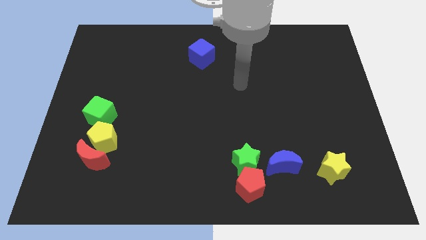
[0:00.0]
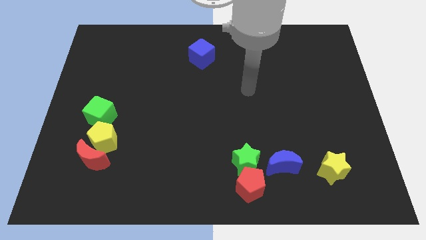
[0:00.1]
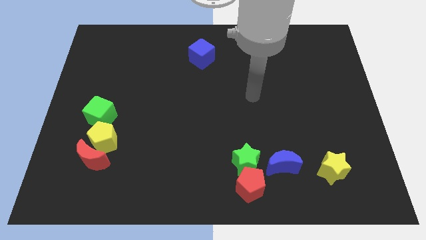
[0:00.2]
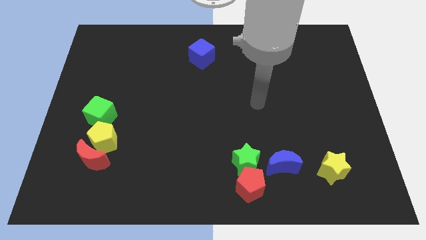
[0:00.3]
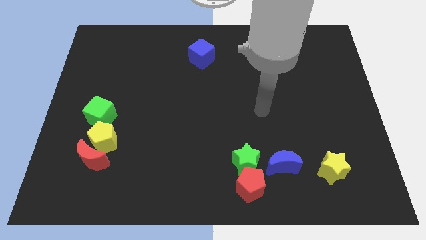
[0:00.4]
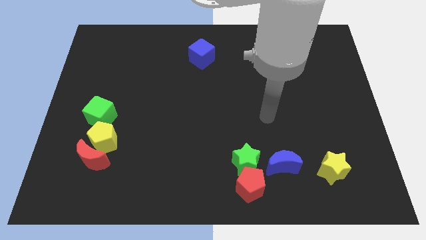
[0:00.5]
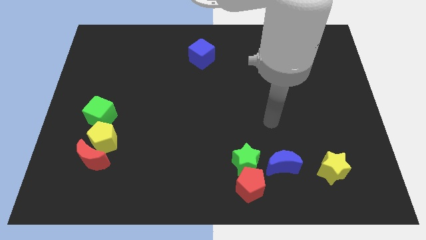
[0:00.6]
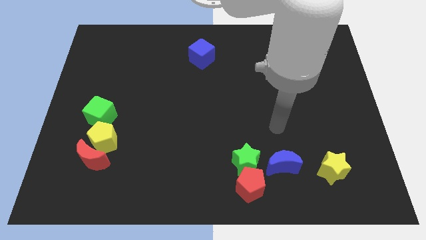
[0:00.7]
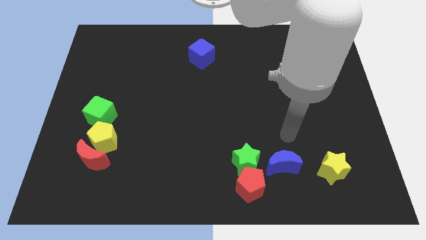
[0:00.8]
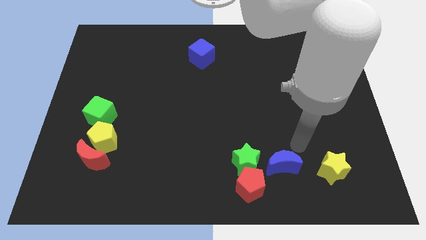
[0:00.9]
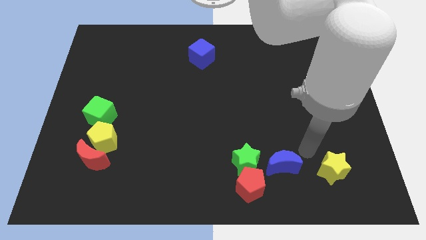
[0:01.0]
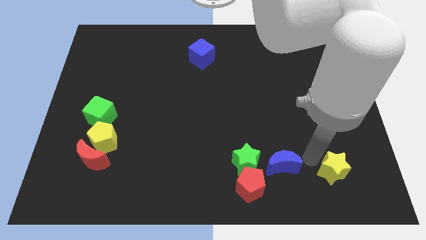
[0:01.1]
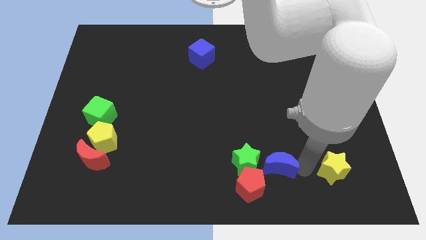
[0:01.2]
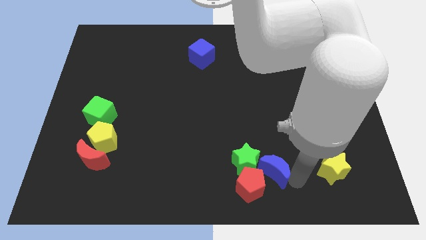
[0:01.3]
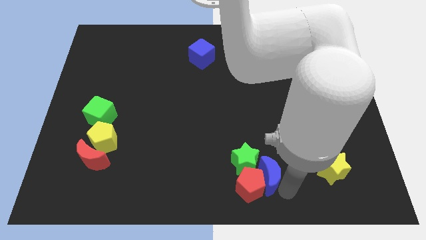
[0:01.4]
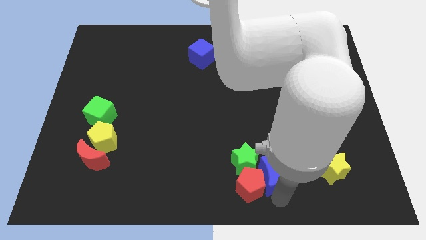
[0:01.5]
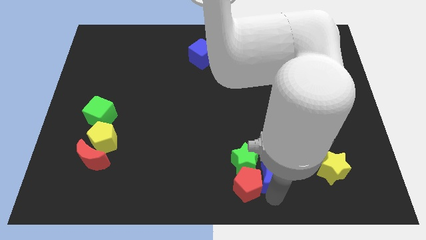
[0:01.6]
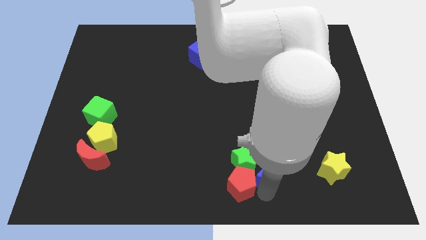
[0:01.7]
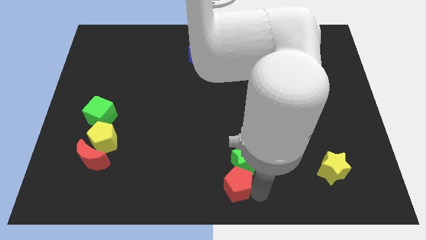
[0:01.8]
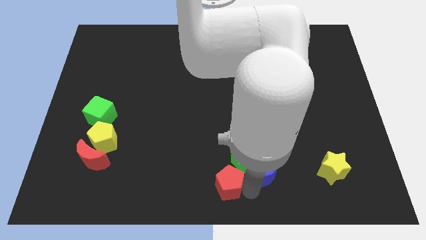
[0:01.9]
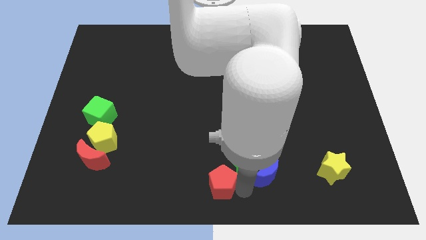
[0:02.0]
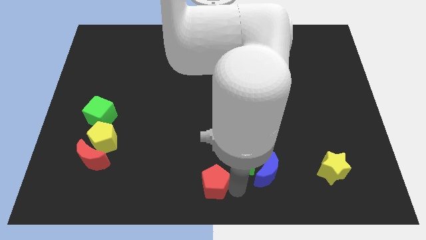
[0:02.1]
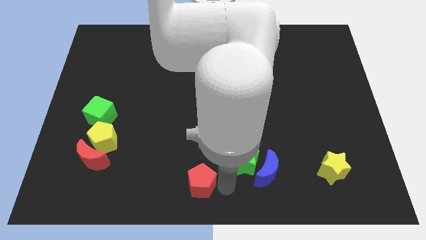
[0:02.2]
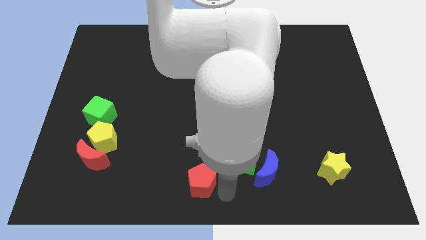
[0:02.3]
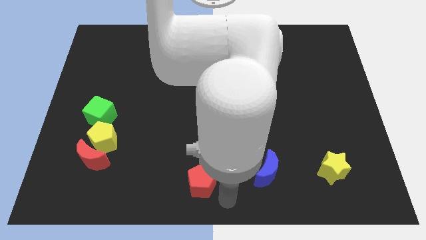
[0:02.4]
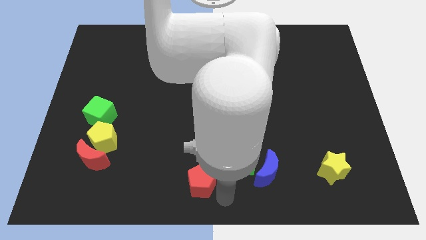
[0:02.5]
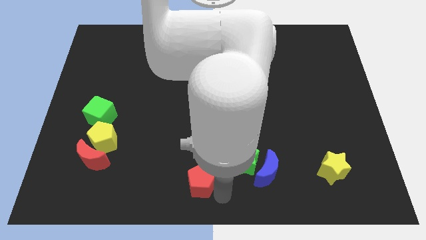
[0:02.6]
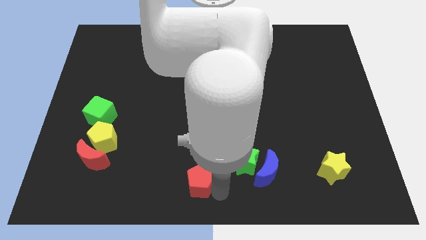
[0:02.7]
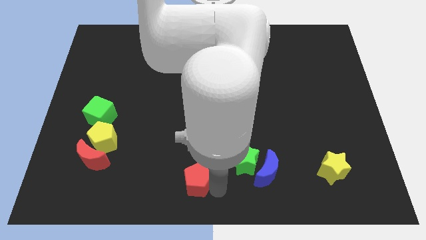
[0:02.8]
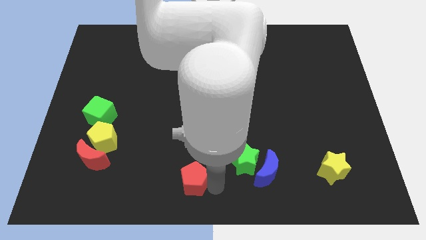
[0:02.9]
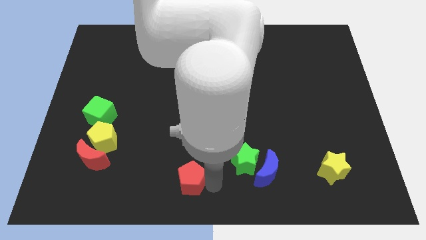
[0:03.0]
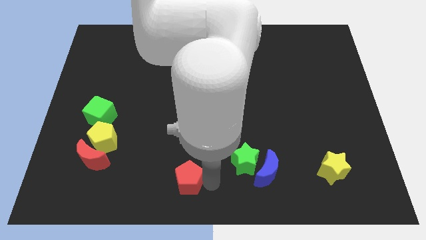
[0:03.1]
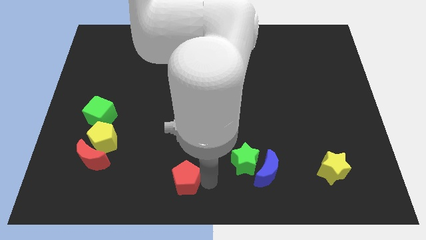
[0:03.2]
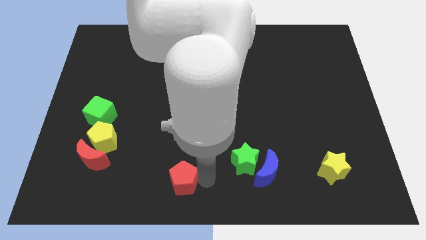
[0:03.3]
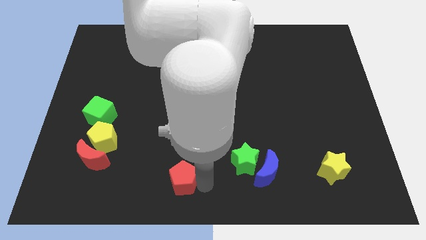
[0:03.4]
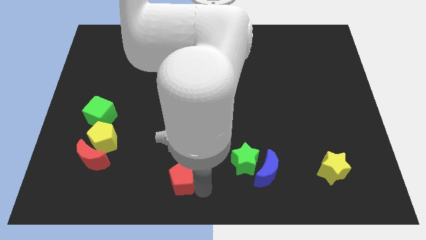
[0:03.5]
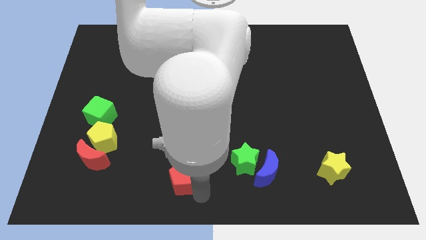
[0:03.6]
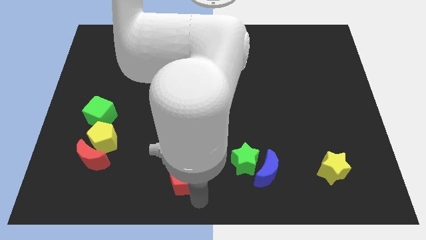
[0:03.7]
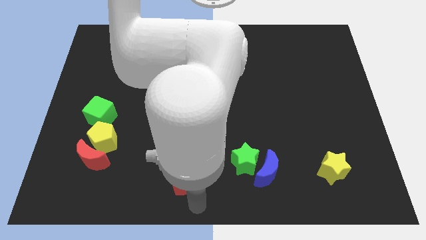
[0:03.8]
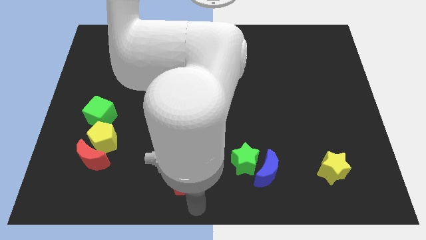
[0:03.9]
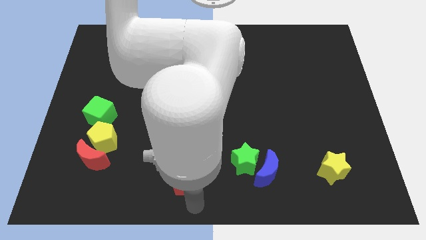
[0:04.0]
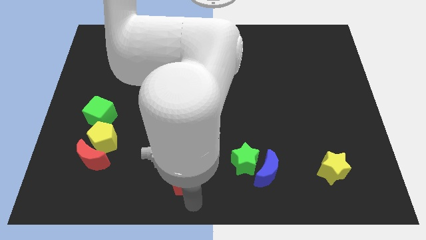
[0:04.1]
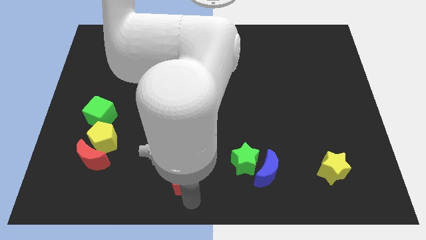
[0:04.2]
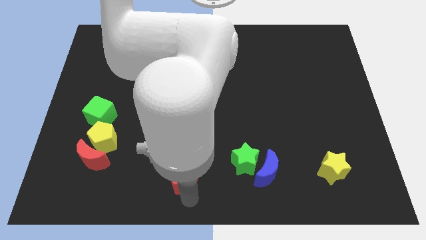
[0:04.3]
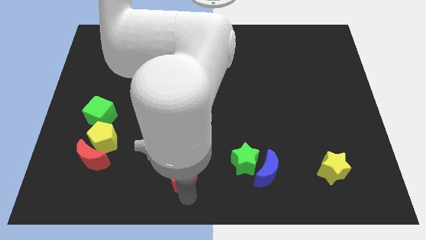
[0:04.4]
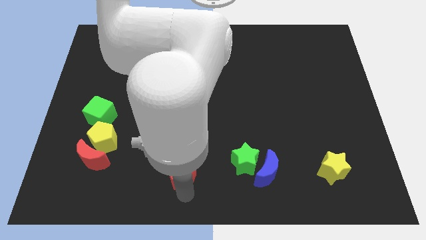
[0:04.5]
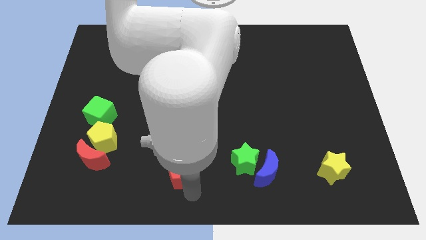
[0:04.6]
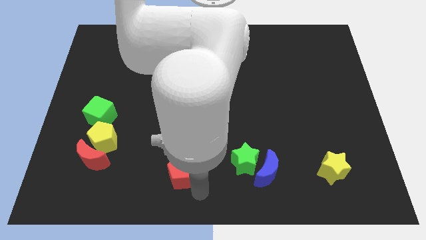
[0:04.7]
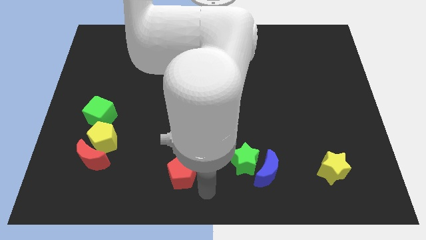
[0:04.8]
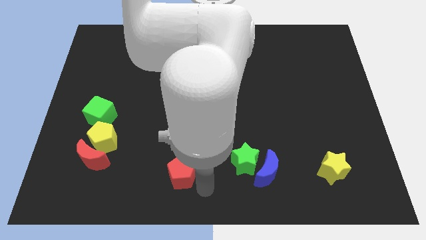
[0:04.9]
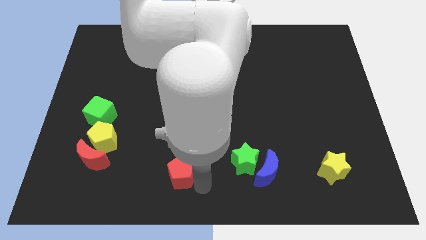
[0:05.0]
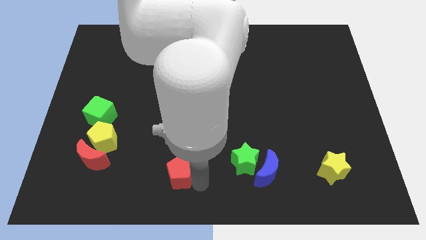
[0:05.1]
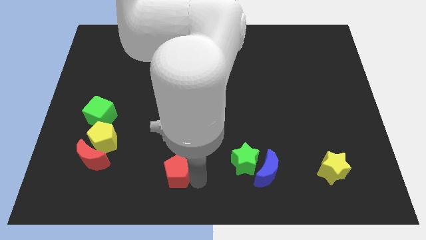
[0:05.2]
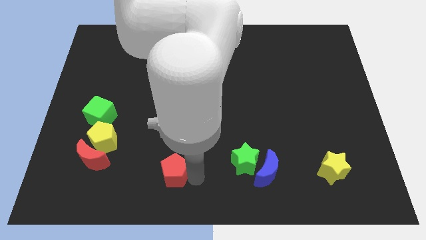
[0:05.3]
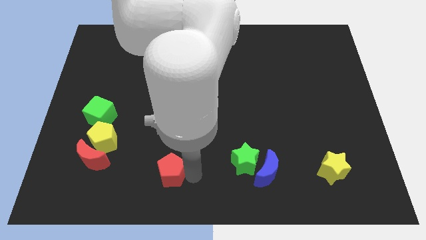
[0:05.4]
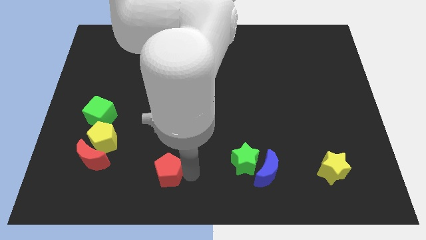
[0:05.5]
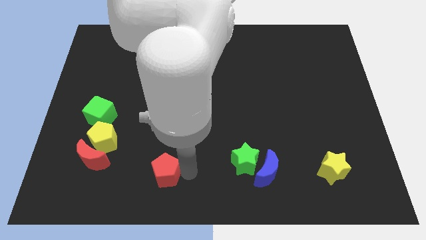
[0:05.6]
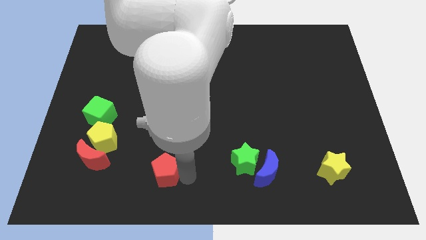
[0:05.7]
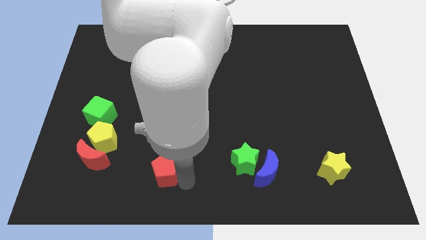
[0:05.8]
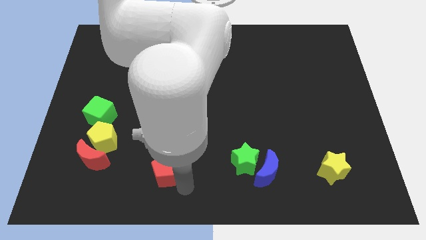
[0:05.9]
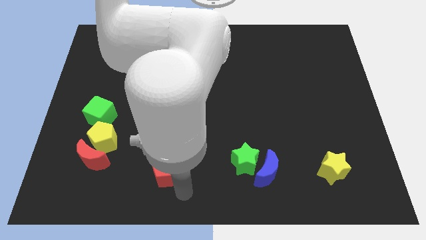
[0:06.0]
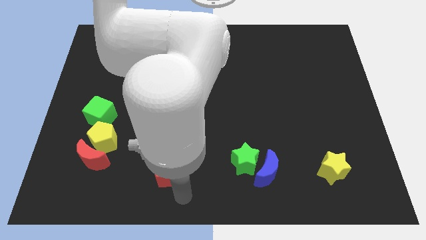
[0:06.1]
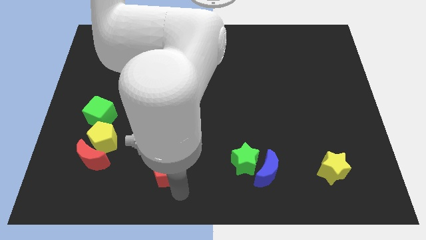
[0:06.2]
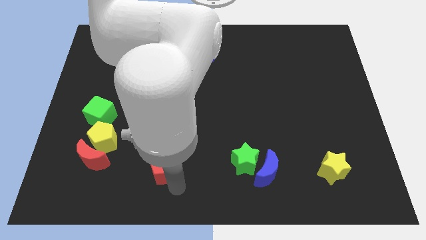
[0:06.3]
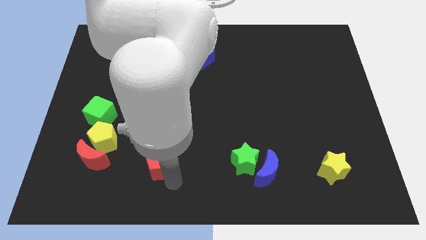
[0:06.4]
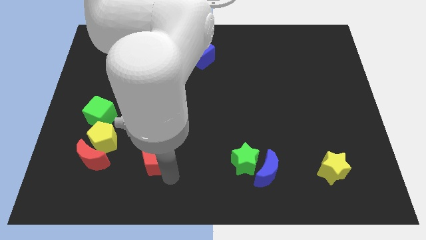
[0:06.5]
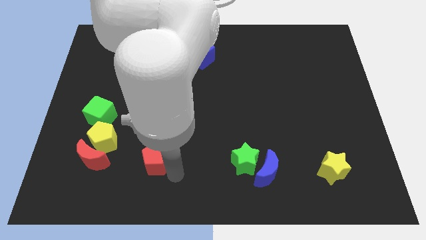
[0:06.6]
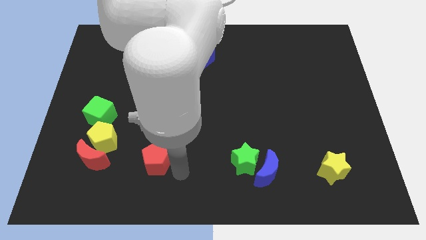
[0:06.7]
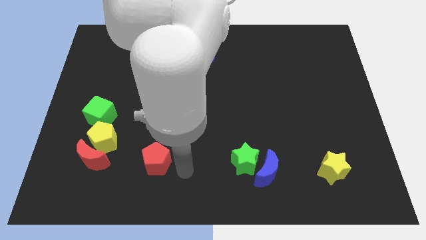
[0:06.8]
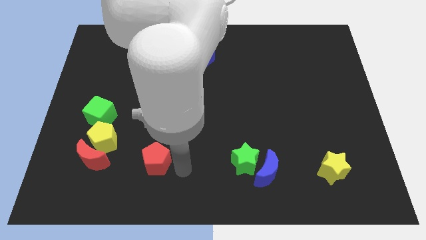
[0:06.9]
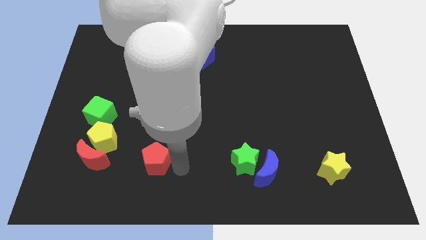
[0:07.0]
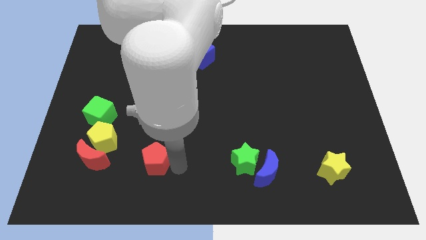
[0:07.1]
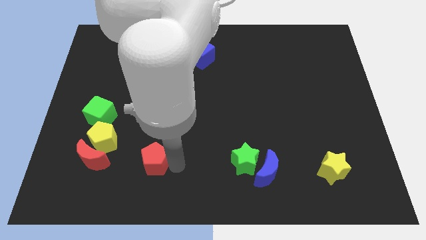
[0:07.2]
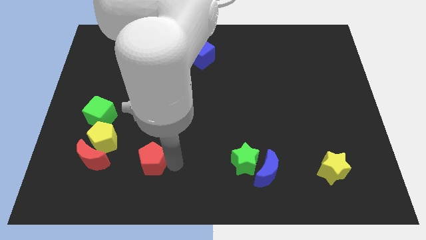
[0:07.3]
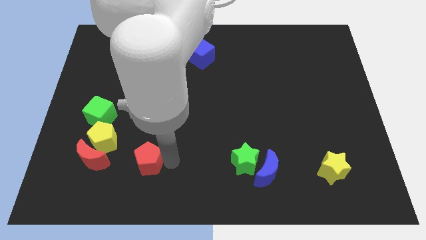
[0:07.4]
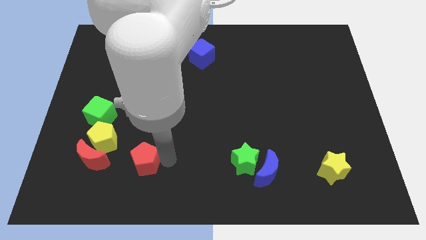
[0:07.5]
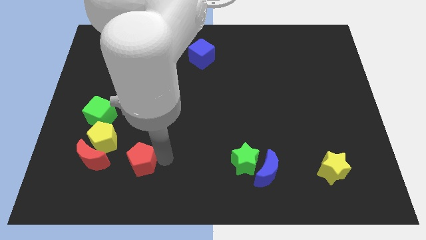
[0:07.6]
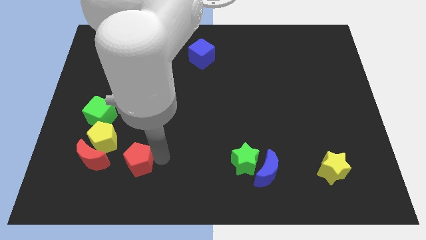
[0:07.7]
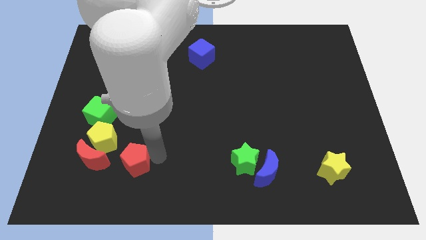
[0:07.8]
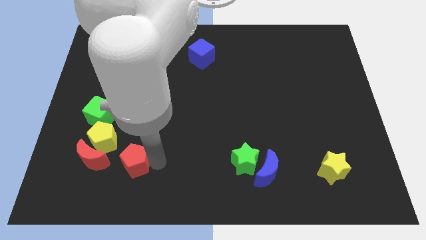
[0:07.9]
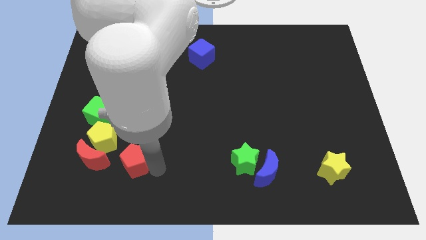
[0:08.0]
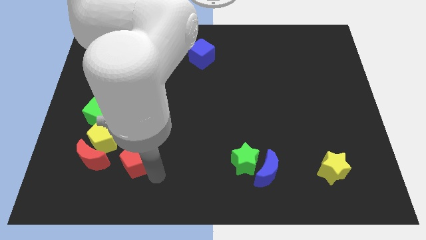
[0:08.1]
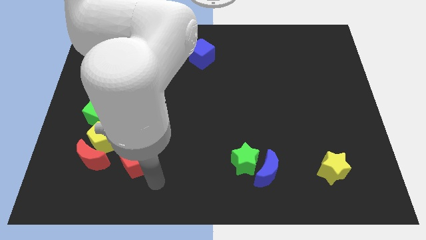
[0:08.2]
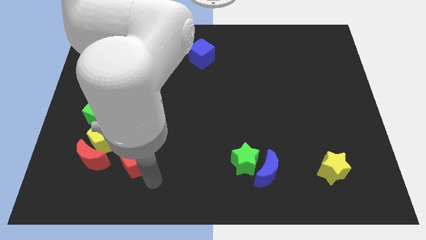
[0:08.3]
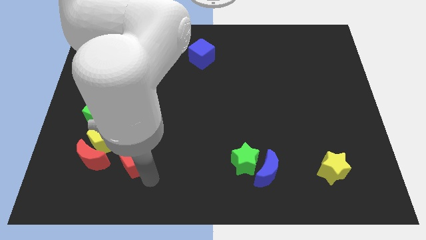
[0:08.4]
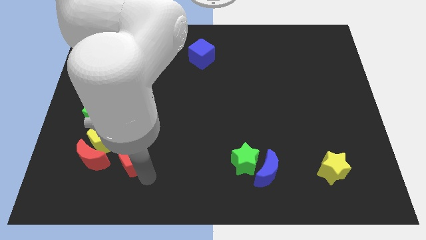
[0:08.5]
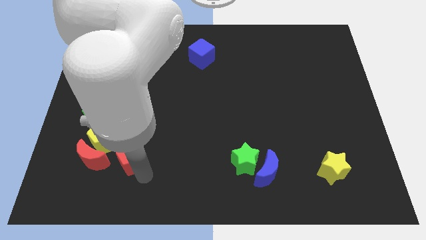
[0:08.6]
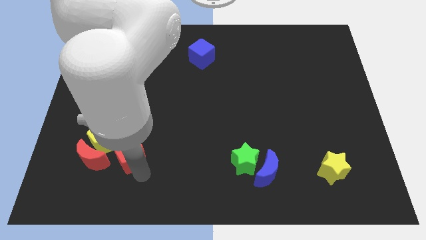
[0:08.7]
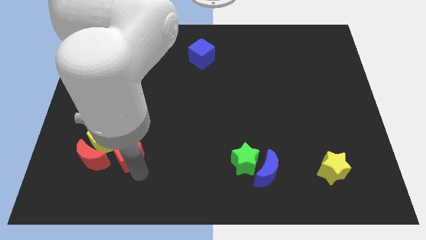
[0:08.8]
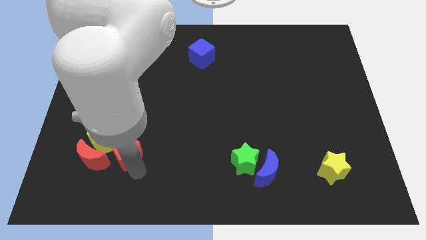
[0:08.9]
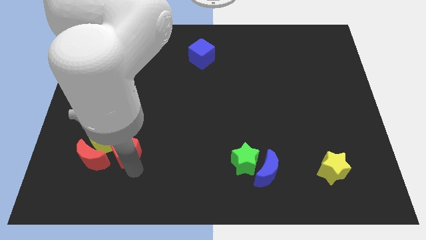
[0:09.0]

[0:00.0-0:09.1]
push the red pentagon close to the yellow pentagon
